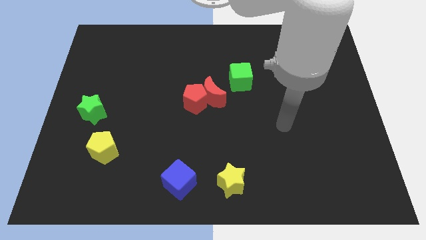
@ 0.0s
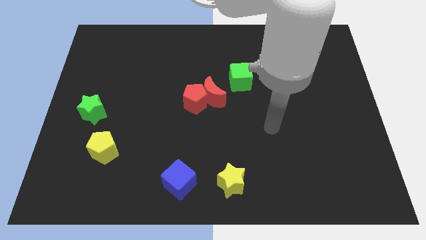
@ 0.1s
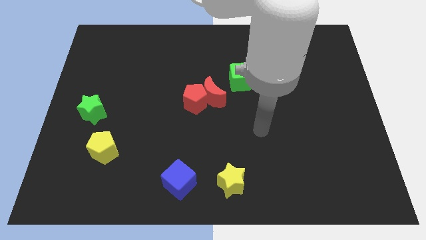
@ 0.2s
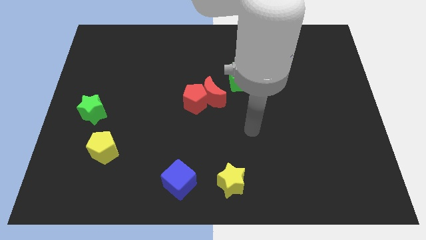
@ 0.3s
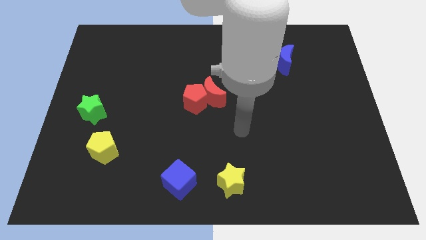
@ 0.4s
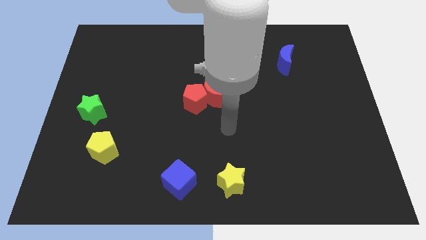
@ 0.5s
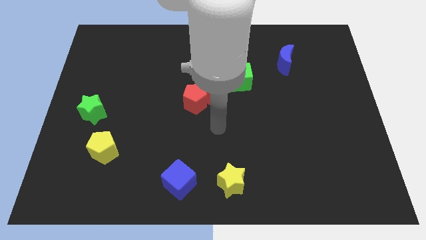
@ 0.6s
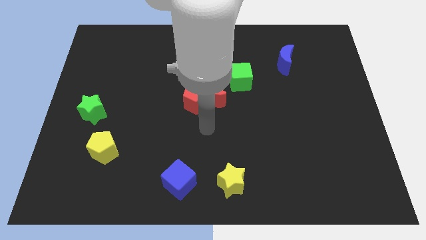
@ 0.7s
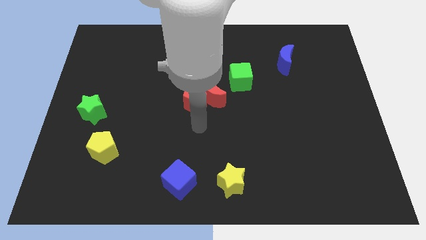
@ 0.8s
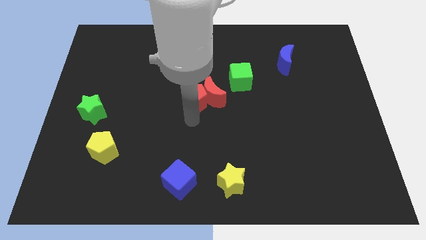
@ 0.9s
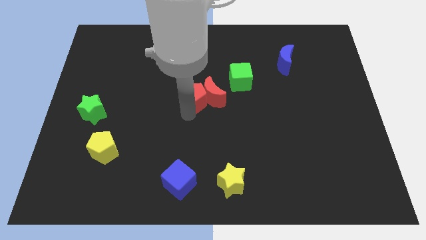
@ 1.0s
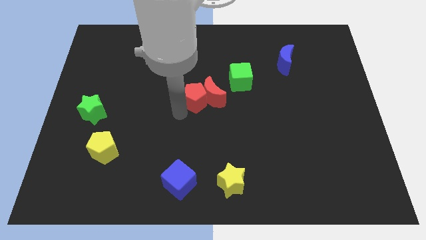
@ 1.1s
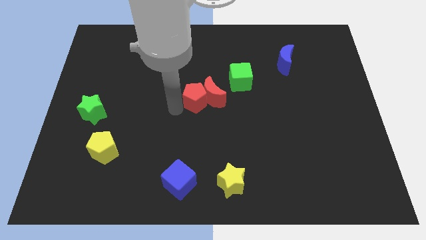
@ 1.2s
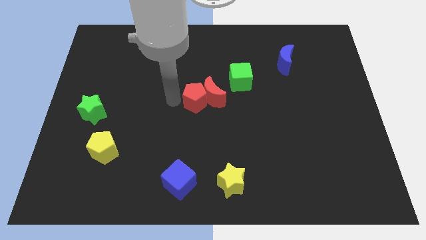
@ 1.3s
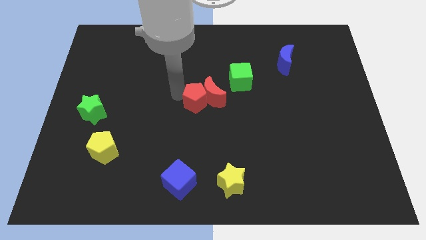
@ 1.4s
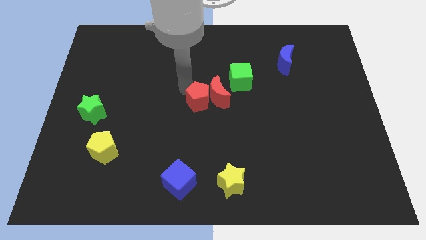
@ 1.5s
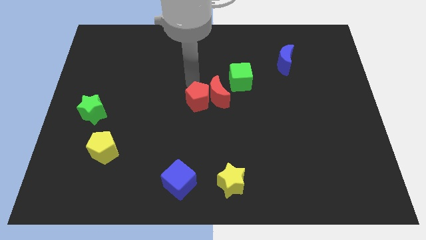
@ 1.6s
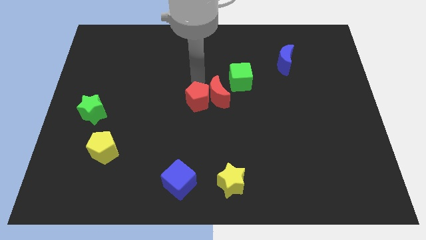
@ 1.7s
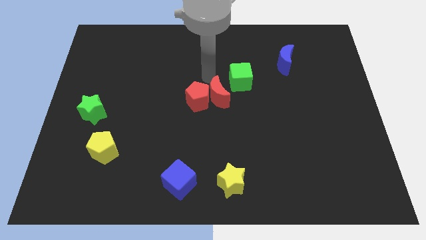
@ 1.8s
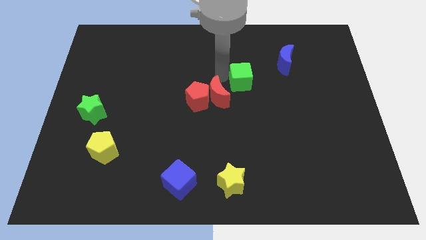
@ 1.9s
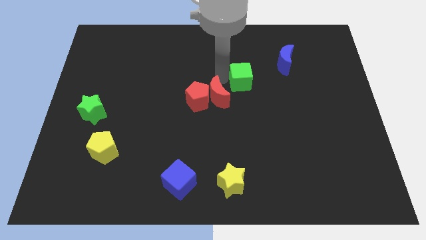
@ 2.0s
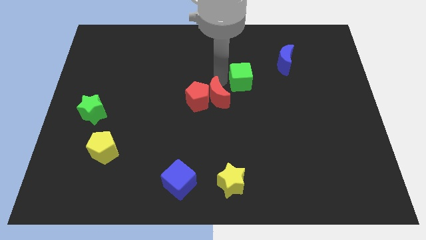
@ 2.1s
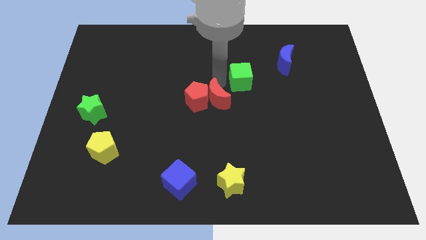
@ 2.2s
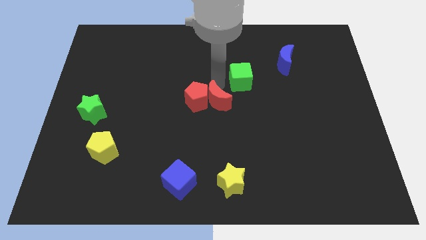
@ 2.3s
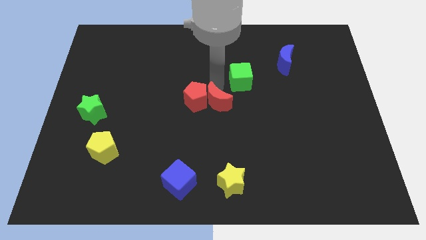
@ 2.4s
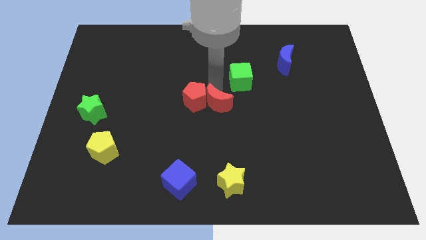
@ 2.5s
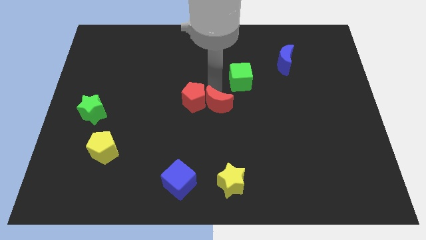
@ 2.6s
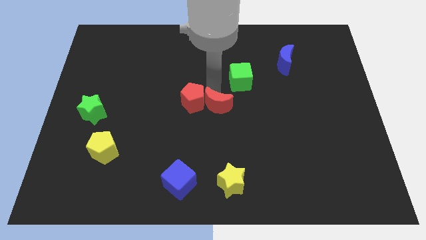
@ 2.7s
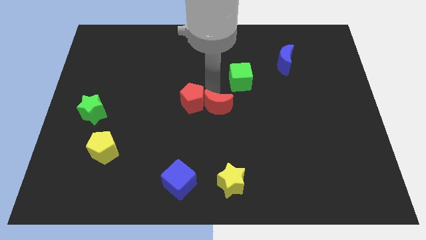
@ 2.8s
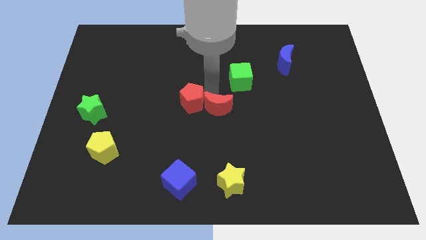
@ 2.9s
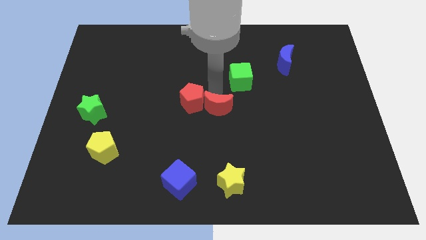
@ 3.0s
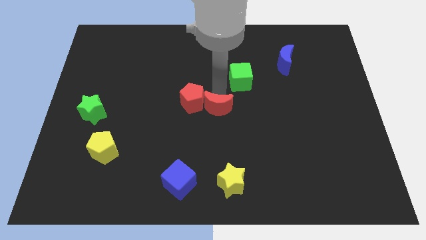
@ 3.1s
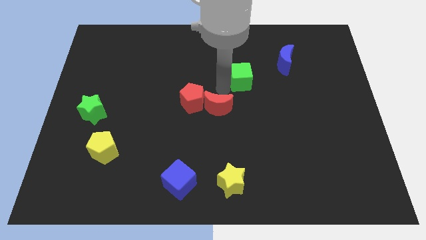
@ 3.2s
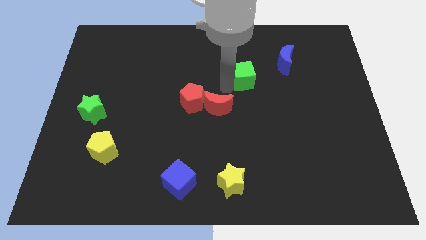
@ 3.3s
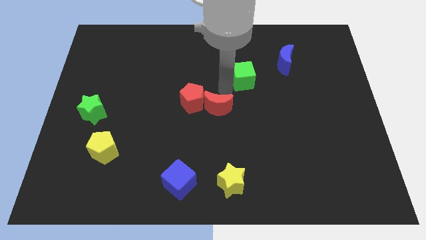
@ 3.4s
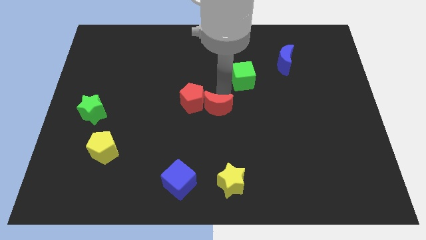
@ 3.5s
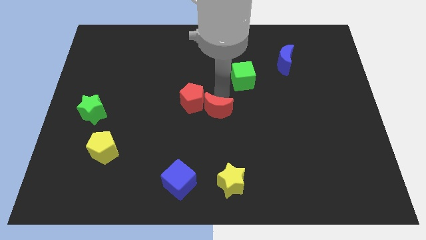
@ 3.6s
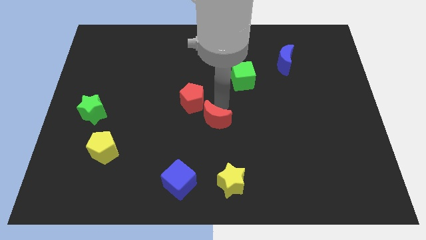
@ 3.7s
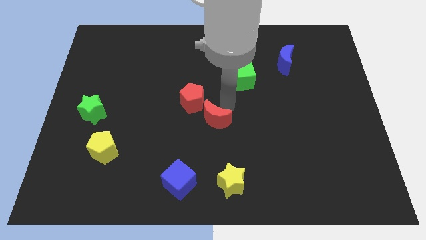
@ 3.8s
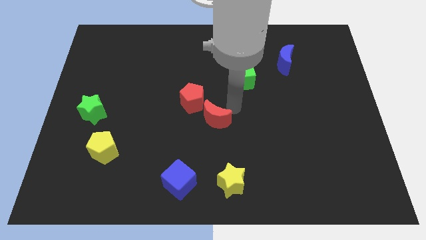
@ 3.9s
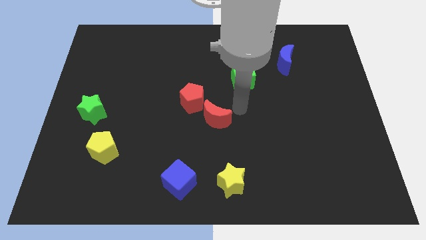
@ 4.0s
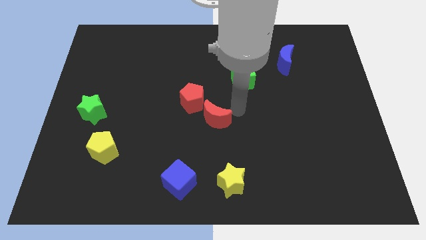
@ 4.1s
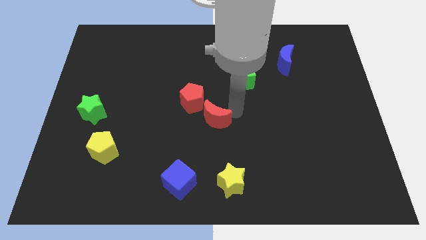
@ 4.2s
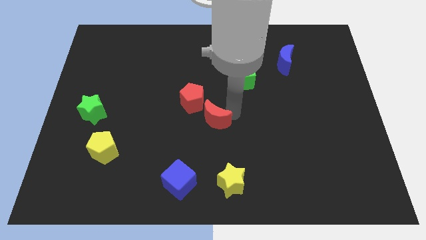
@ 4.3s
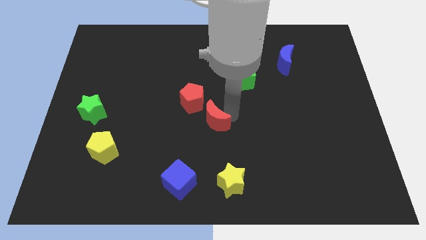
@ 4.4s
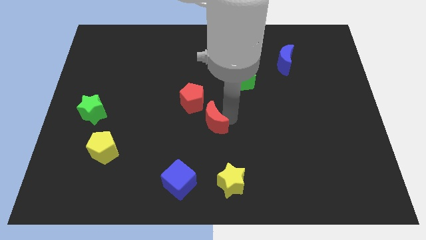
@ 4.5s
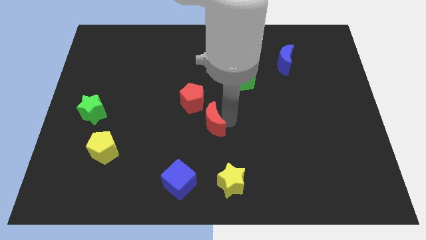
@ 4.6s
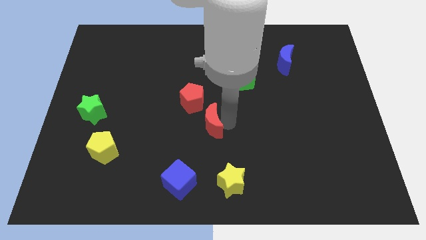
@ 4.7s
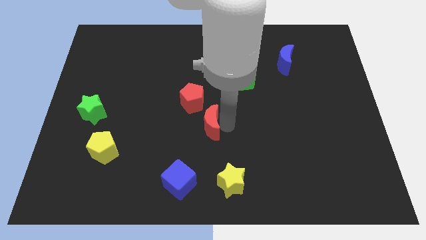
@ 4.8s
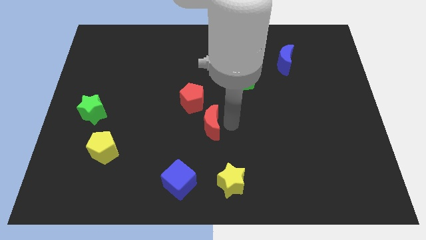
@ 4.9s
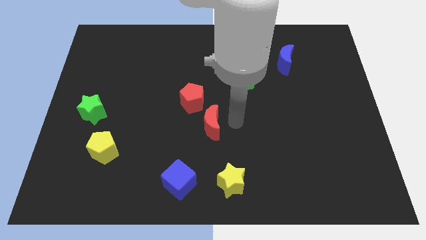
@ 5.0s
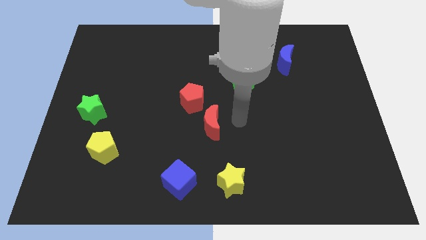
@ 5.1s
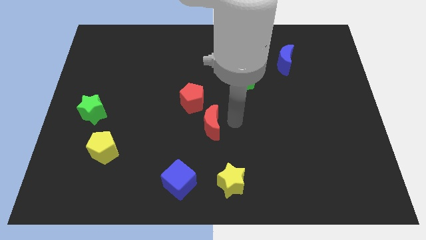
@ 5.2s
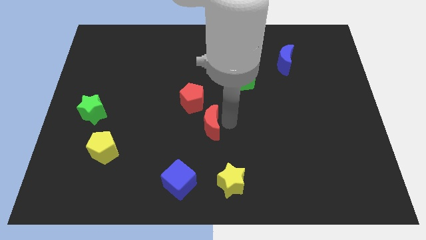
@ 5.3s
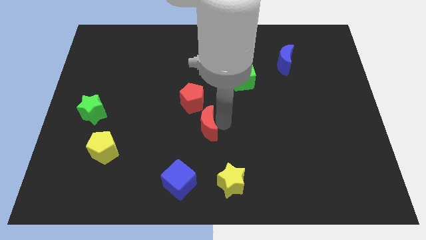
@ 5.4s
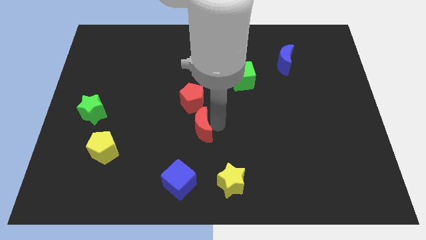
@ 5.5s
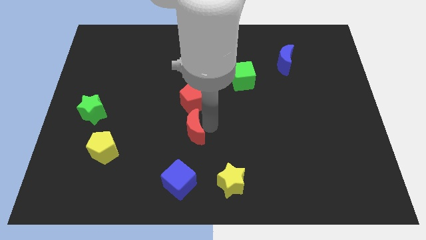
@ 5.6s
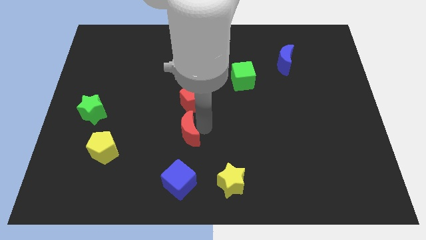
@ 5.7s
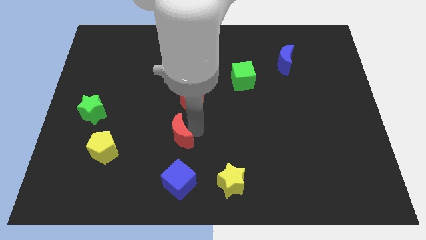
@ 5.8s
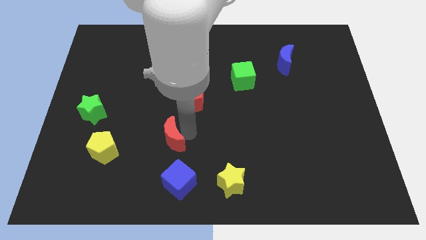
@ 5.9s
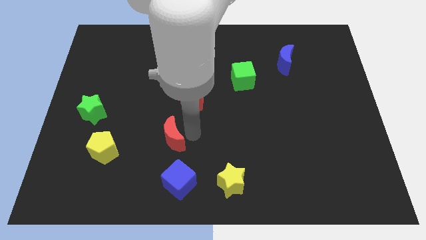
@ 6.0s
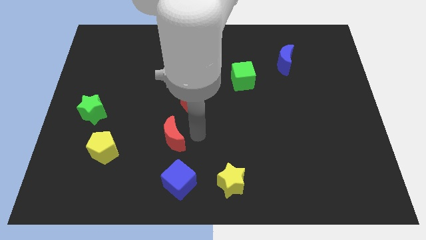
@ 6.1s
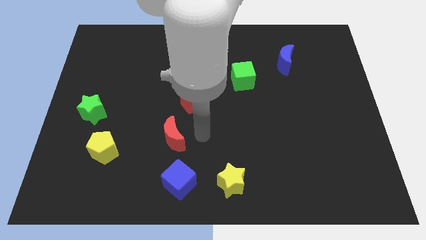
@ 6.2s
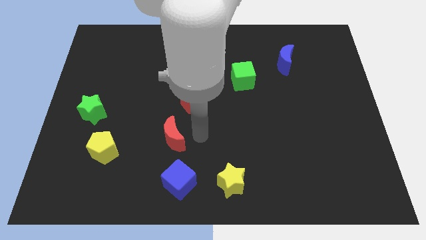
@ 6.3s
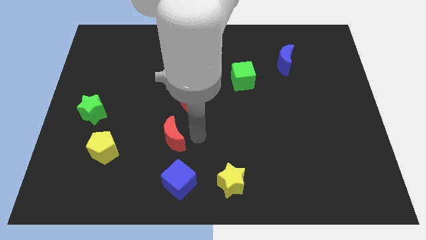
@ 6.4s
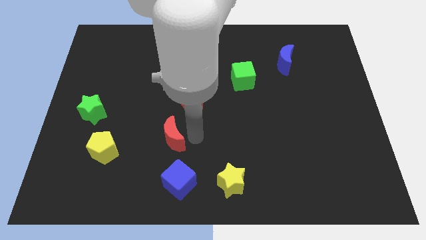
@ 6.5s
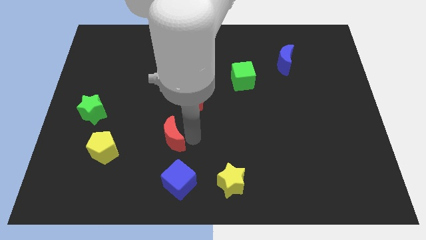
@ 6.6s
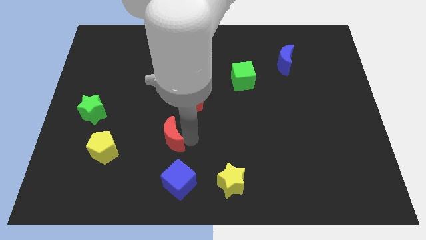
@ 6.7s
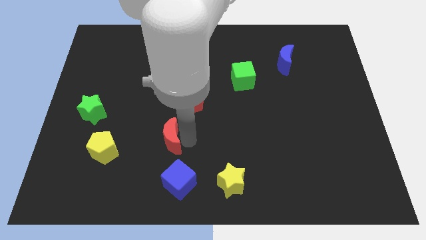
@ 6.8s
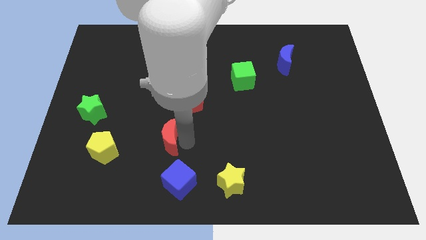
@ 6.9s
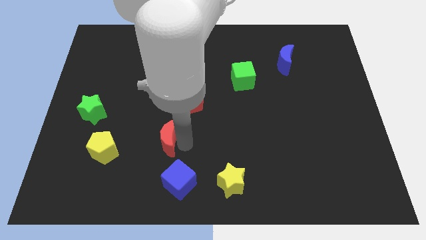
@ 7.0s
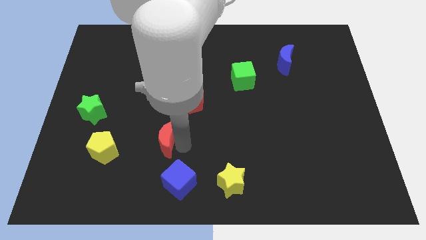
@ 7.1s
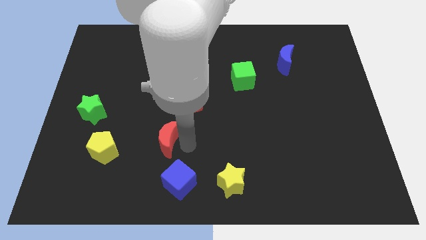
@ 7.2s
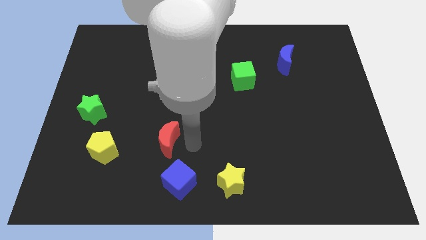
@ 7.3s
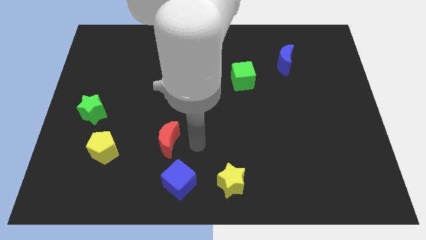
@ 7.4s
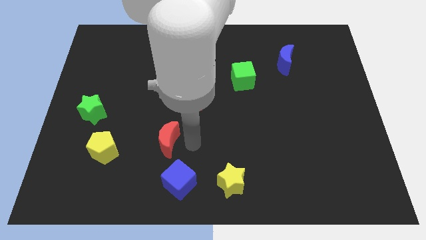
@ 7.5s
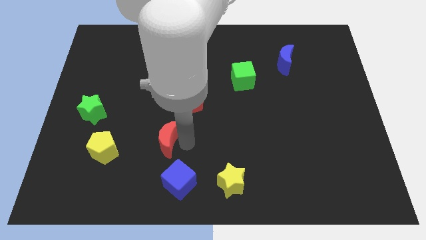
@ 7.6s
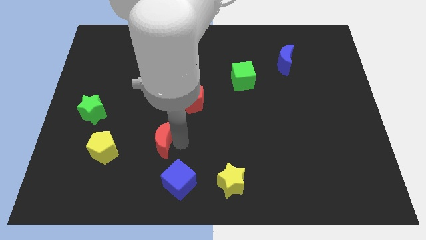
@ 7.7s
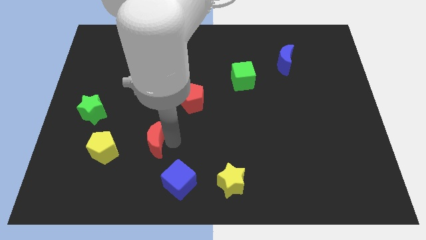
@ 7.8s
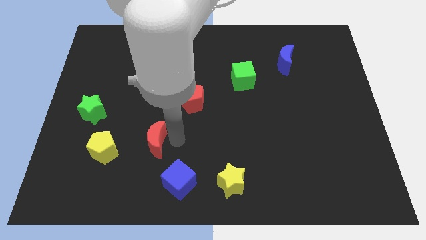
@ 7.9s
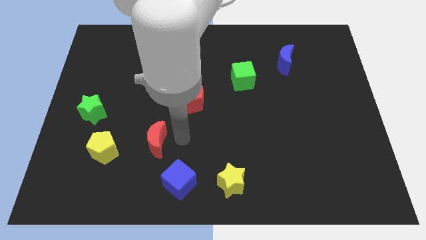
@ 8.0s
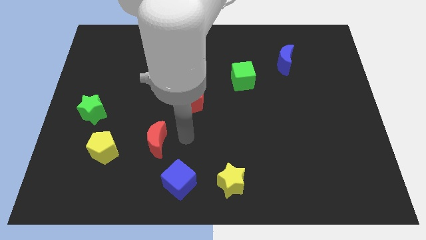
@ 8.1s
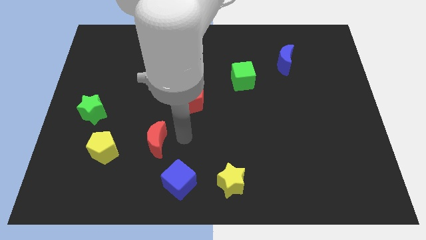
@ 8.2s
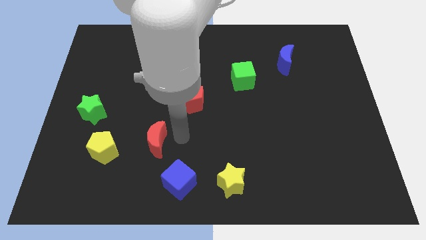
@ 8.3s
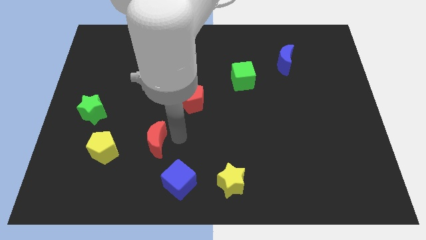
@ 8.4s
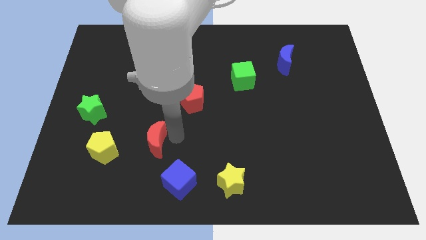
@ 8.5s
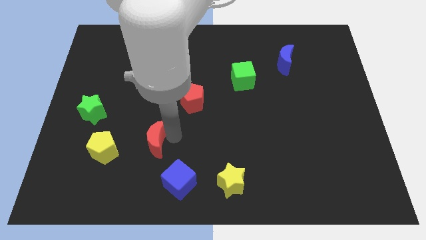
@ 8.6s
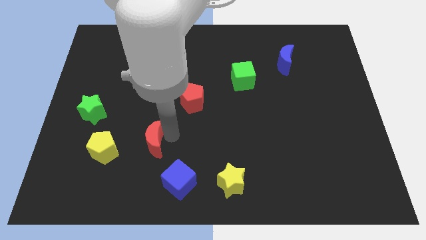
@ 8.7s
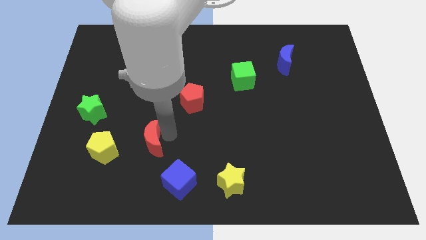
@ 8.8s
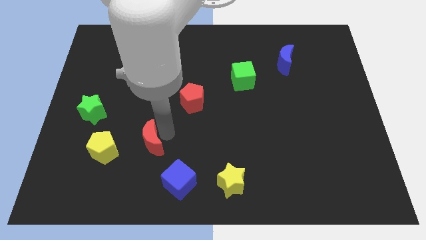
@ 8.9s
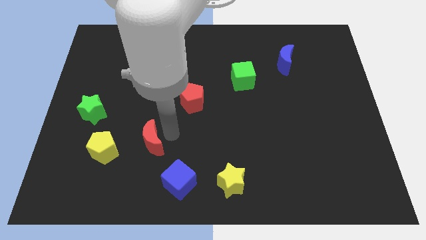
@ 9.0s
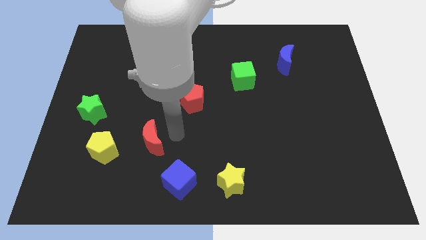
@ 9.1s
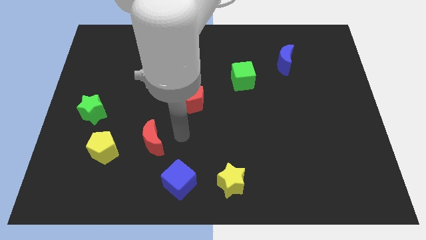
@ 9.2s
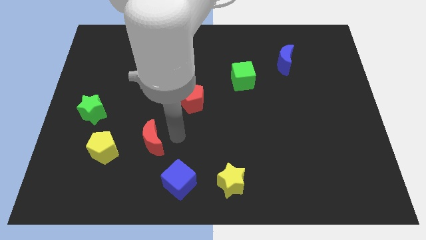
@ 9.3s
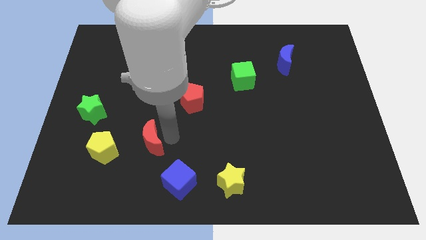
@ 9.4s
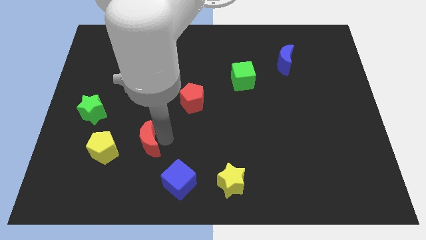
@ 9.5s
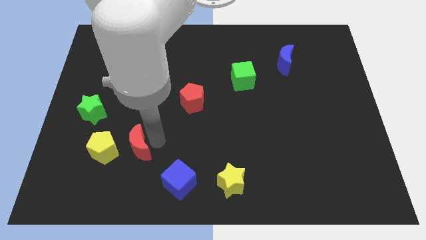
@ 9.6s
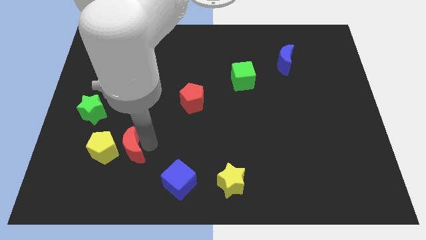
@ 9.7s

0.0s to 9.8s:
slide the red moon towards the yellow pentagon
